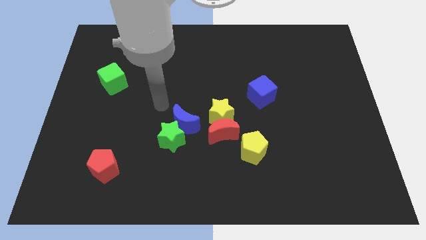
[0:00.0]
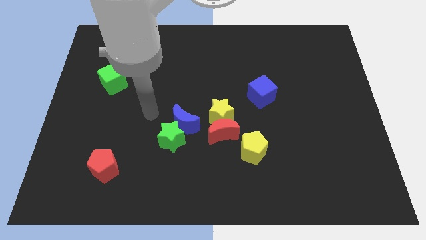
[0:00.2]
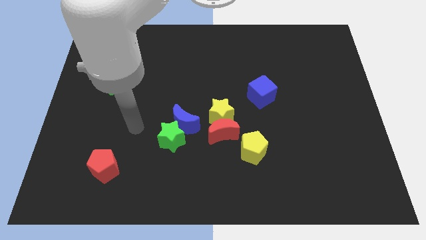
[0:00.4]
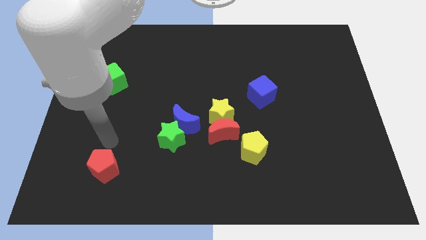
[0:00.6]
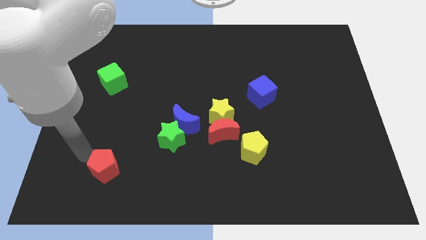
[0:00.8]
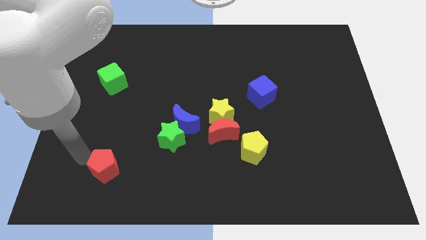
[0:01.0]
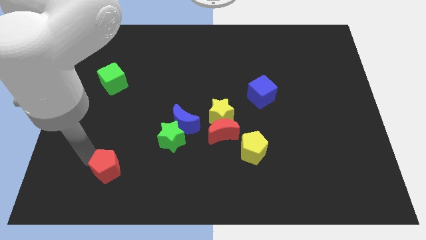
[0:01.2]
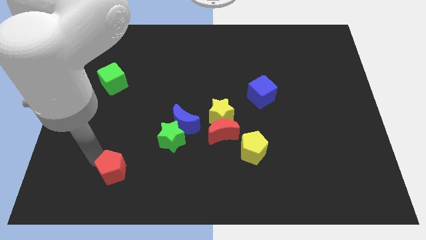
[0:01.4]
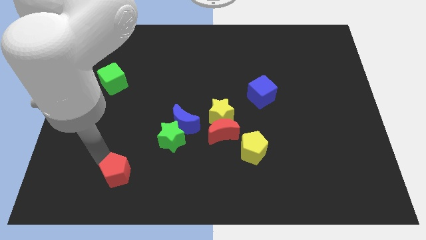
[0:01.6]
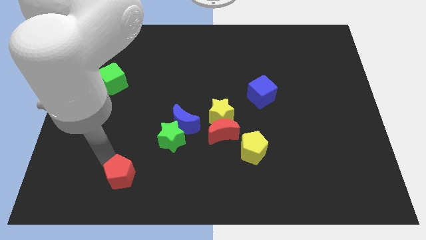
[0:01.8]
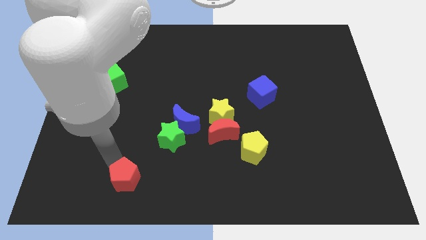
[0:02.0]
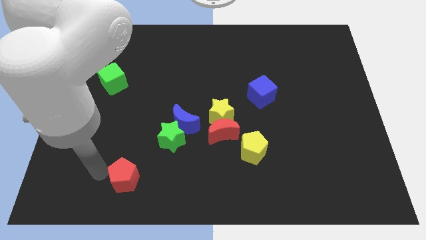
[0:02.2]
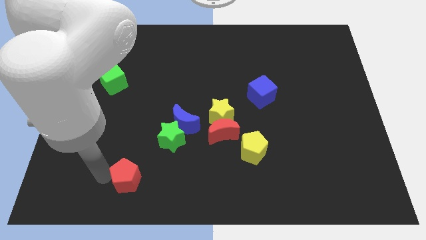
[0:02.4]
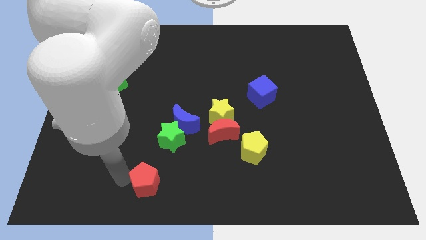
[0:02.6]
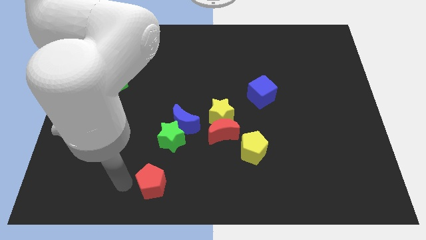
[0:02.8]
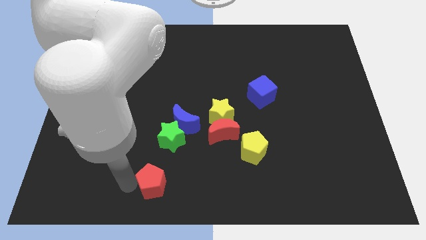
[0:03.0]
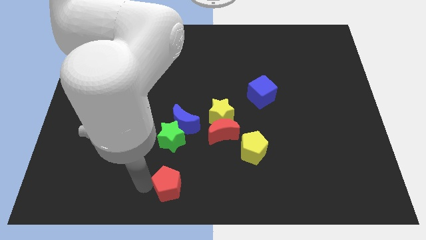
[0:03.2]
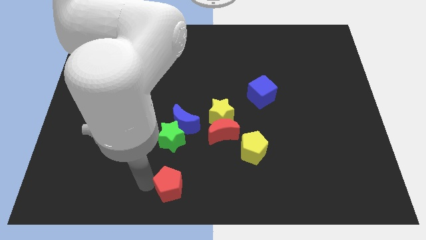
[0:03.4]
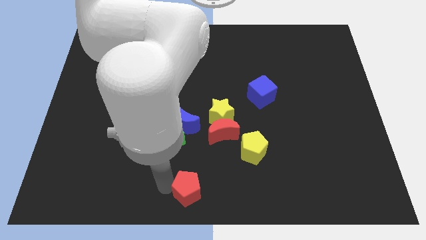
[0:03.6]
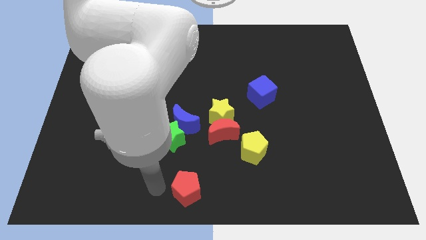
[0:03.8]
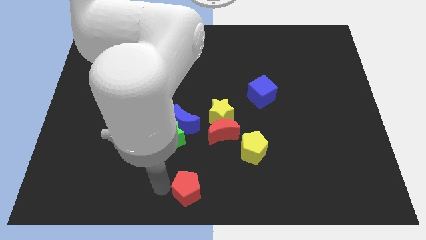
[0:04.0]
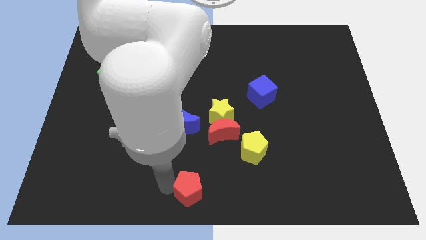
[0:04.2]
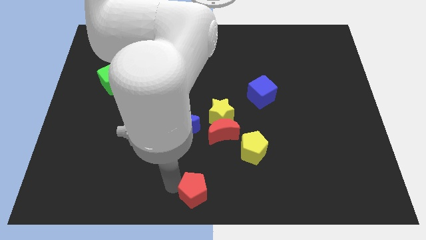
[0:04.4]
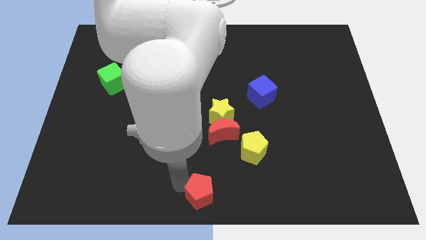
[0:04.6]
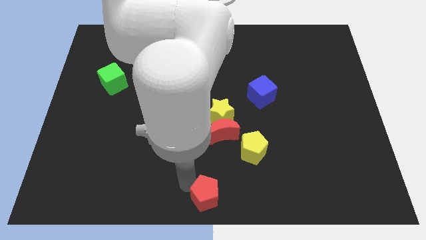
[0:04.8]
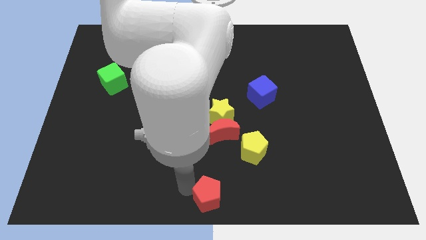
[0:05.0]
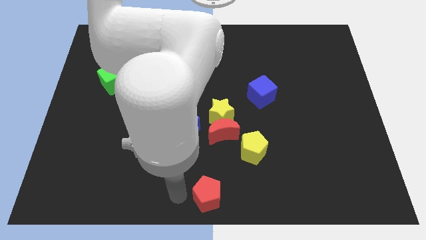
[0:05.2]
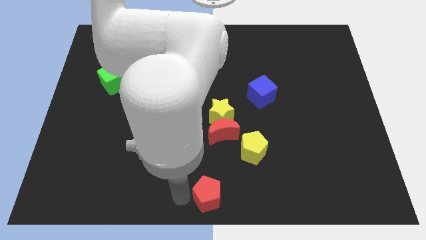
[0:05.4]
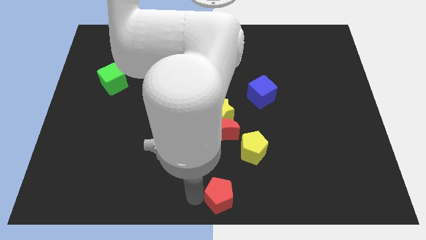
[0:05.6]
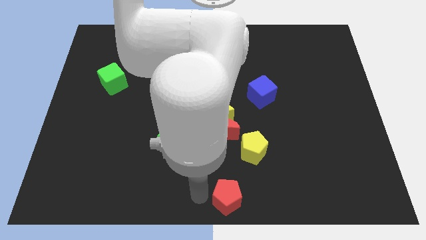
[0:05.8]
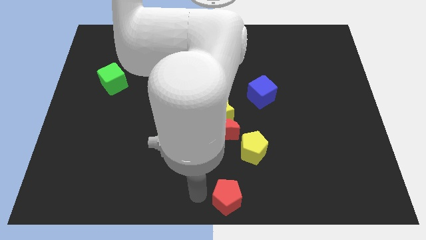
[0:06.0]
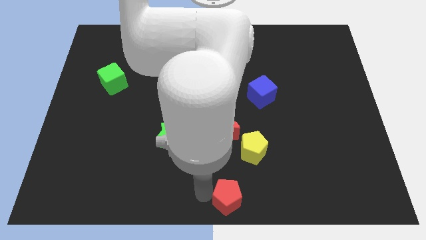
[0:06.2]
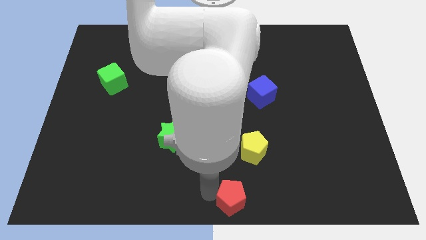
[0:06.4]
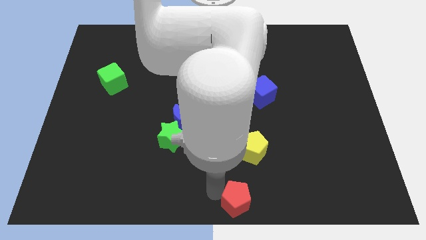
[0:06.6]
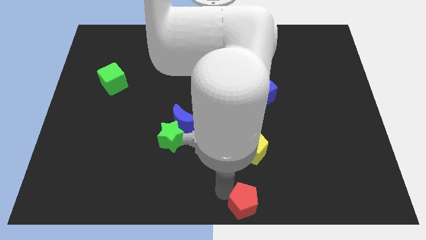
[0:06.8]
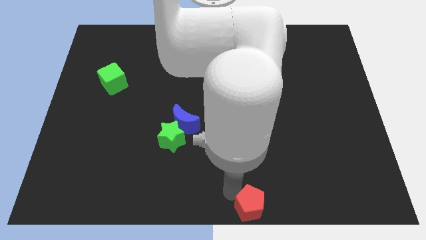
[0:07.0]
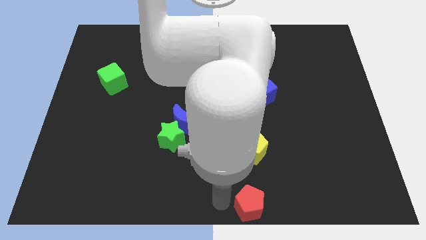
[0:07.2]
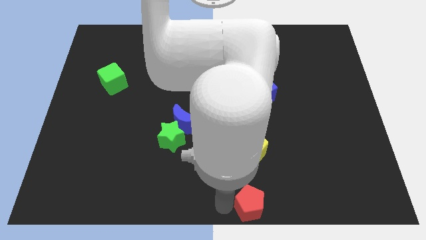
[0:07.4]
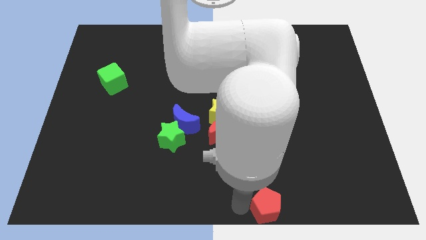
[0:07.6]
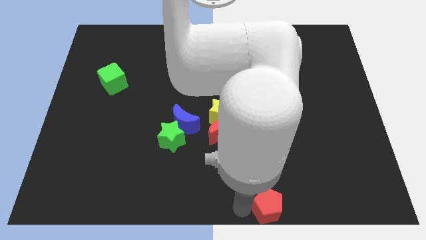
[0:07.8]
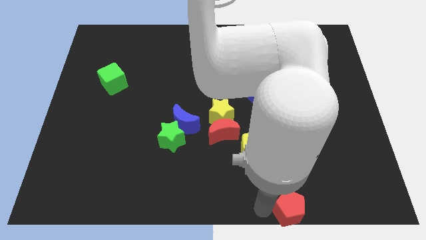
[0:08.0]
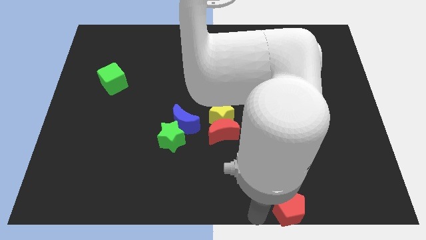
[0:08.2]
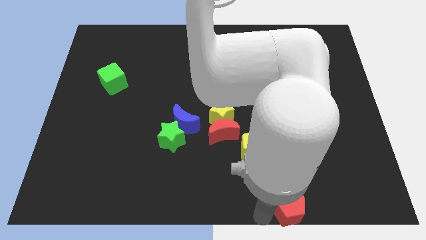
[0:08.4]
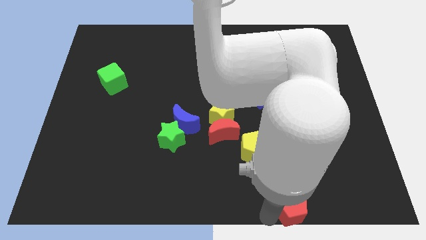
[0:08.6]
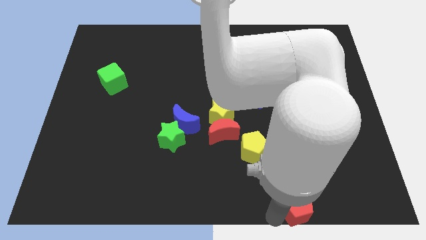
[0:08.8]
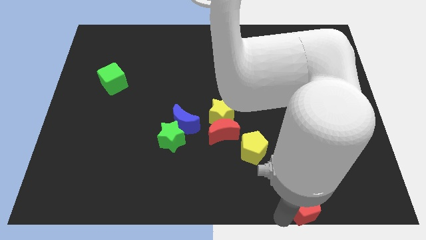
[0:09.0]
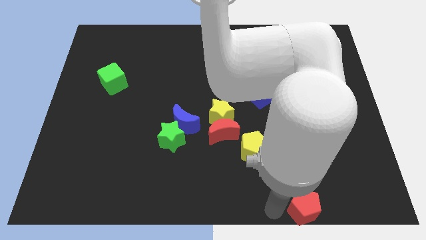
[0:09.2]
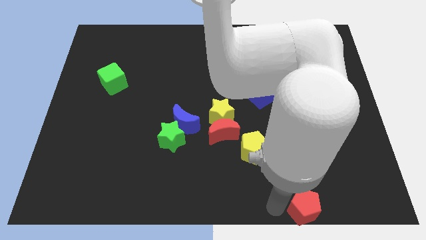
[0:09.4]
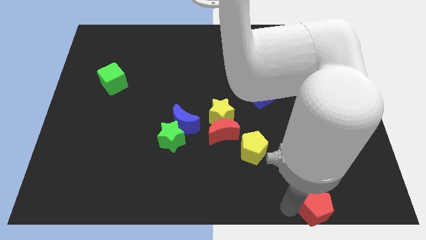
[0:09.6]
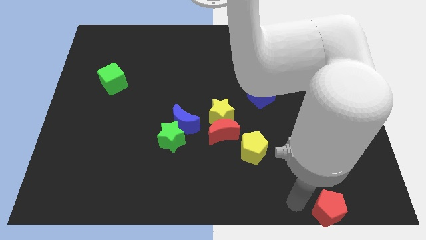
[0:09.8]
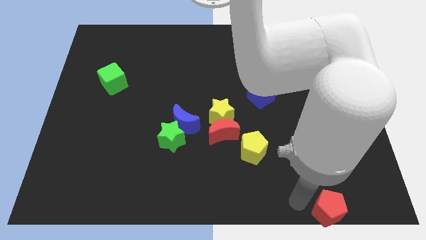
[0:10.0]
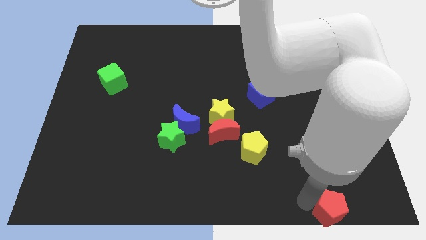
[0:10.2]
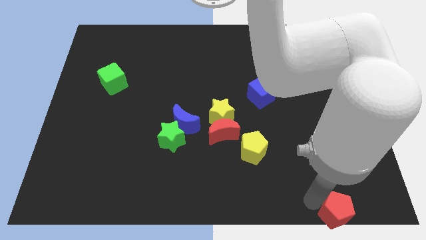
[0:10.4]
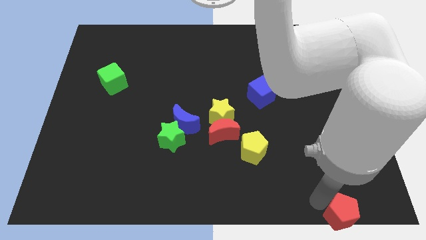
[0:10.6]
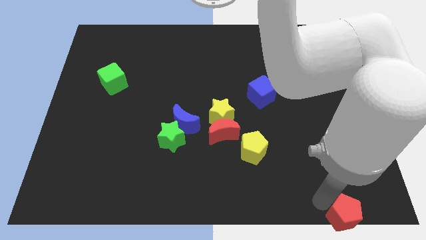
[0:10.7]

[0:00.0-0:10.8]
push the red pentagon to the bottom right
